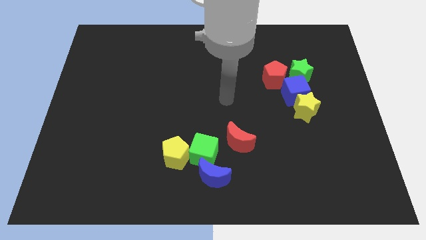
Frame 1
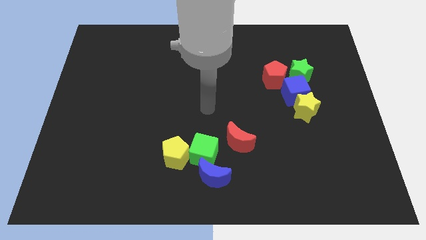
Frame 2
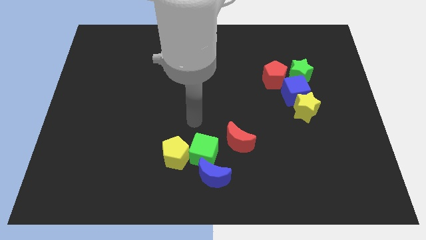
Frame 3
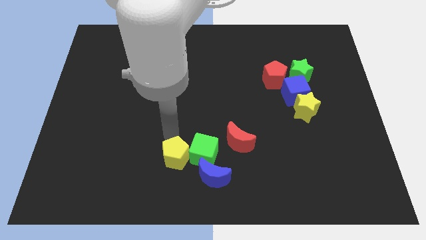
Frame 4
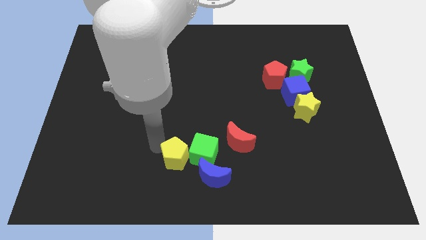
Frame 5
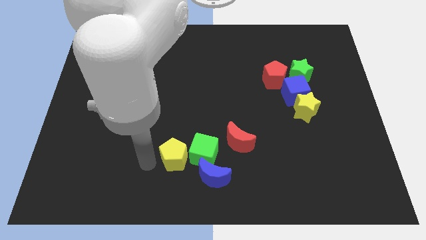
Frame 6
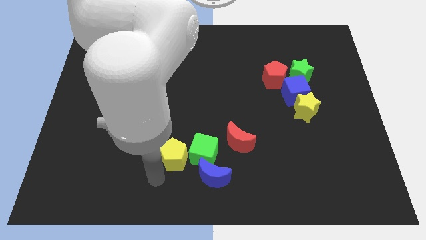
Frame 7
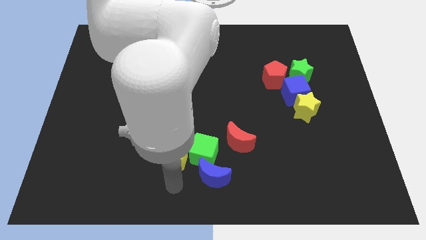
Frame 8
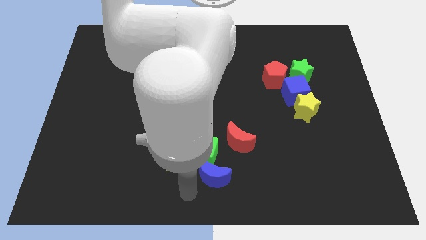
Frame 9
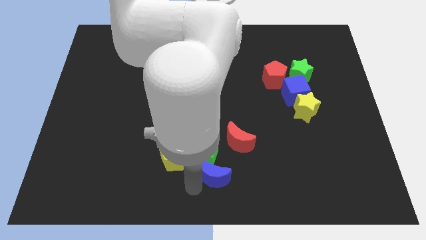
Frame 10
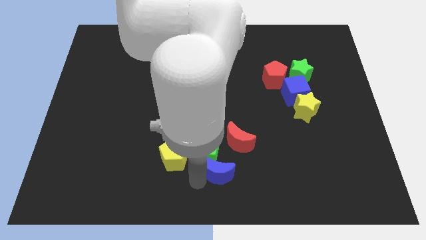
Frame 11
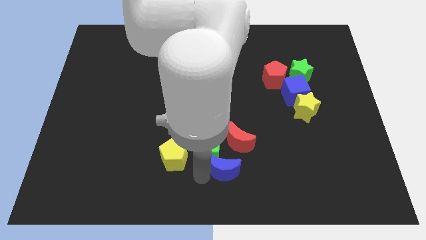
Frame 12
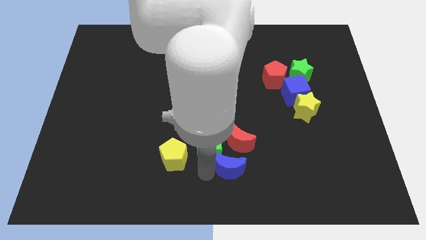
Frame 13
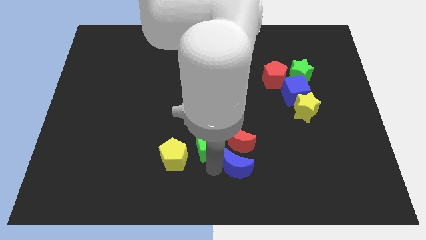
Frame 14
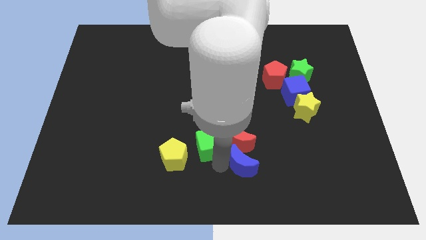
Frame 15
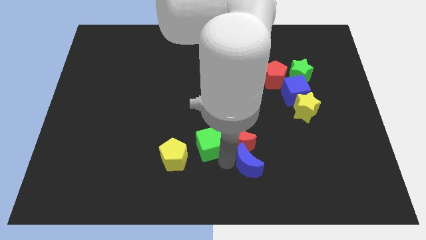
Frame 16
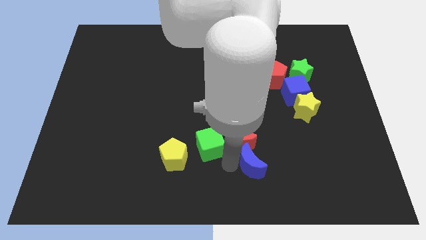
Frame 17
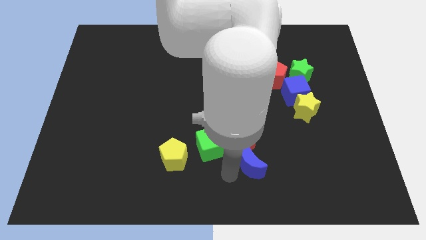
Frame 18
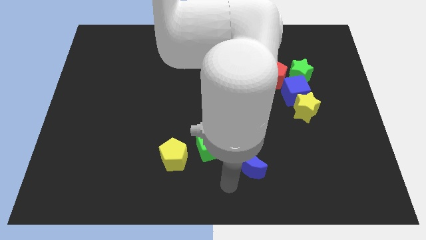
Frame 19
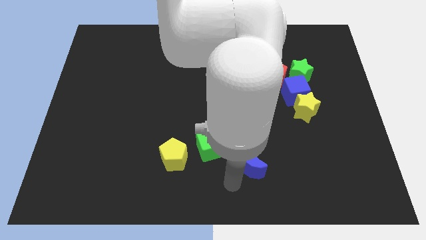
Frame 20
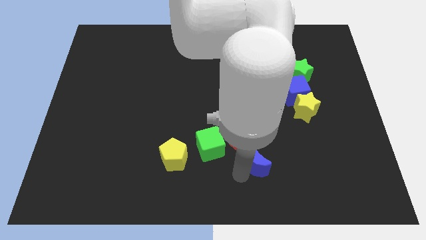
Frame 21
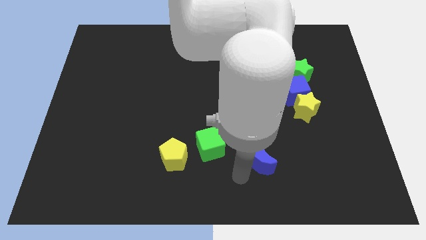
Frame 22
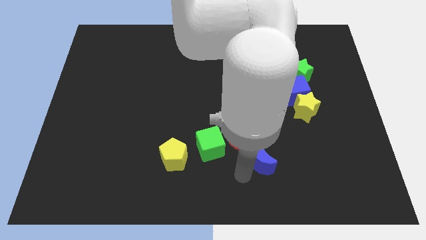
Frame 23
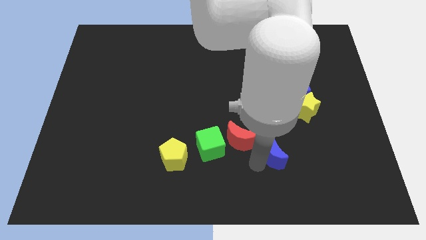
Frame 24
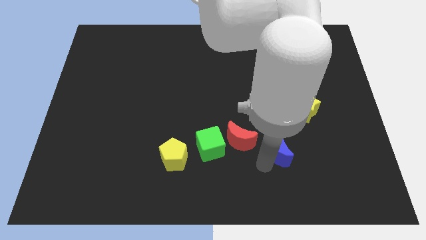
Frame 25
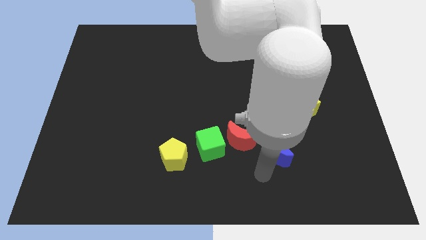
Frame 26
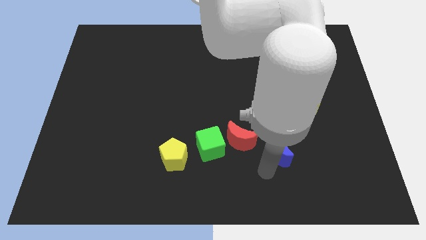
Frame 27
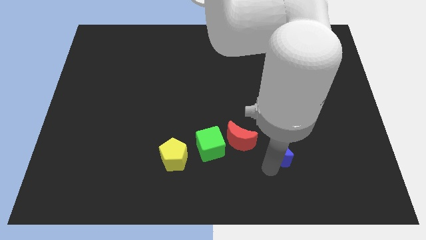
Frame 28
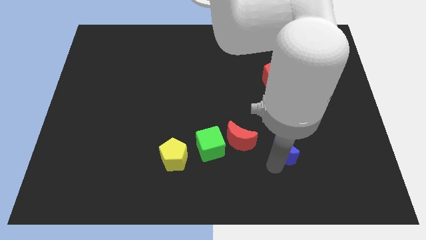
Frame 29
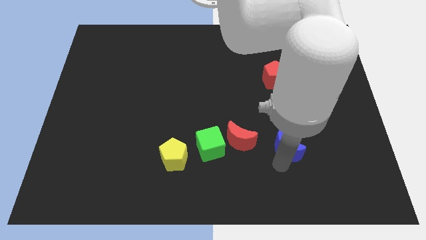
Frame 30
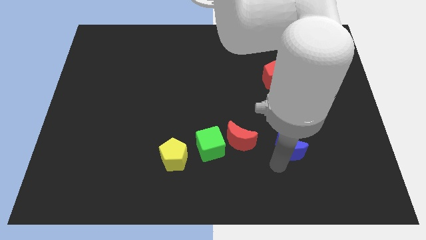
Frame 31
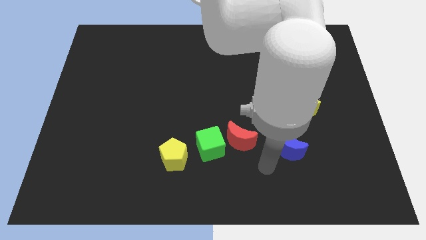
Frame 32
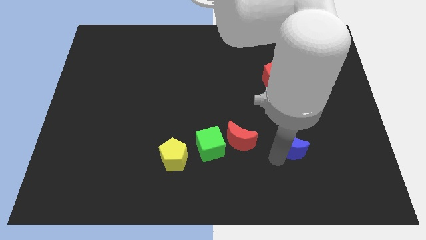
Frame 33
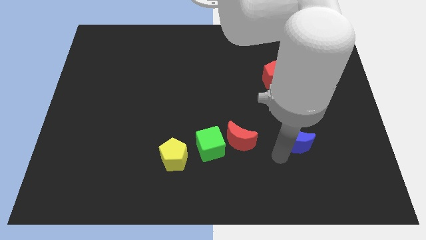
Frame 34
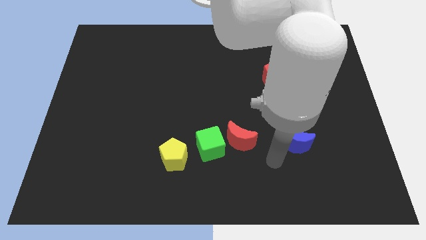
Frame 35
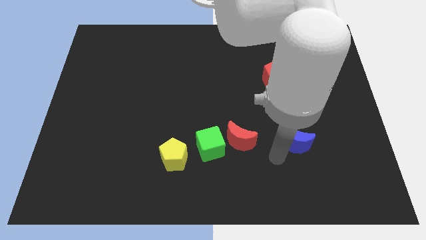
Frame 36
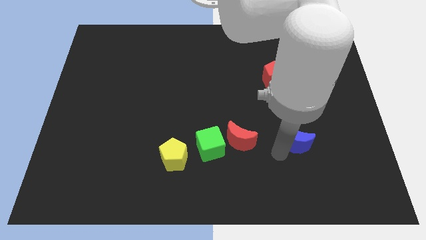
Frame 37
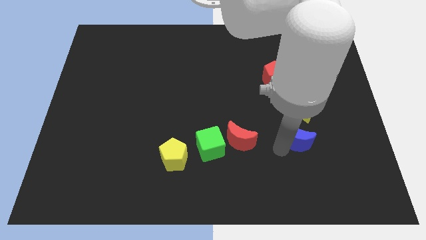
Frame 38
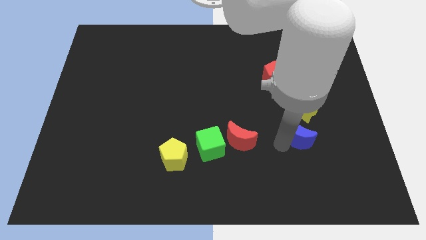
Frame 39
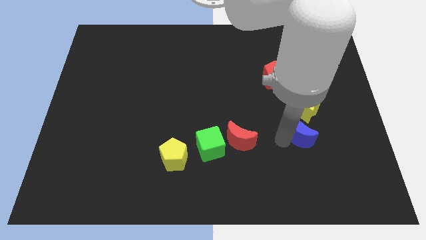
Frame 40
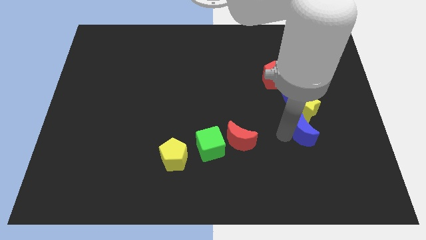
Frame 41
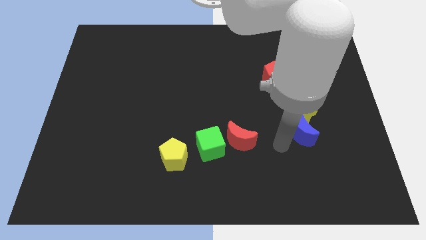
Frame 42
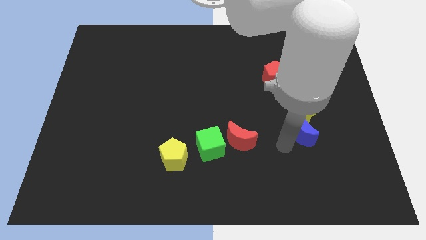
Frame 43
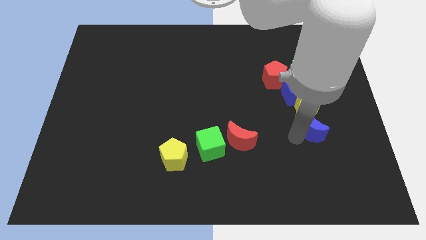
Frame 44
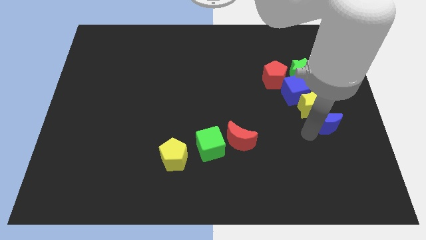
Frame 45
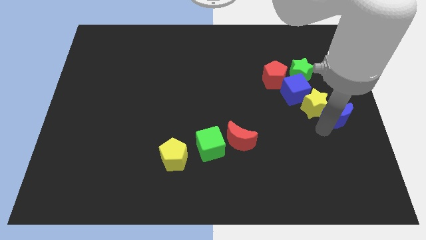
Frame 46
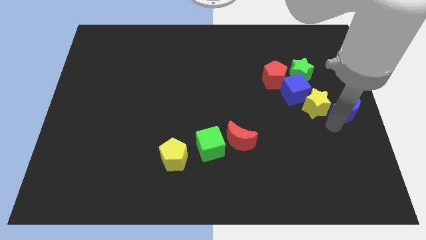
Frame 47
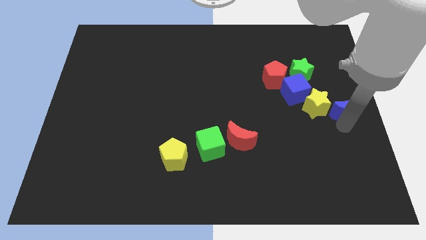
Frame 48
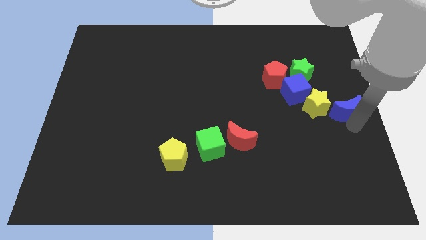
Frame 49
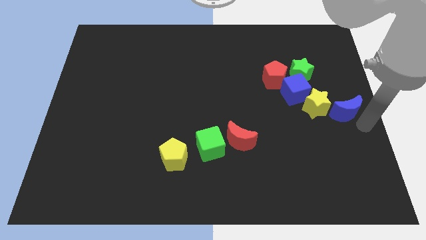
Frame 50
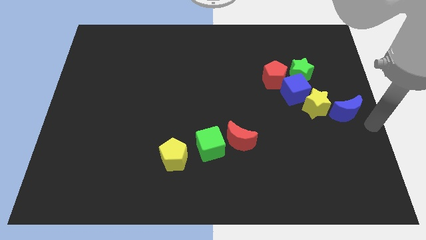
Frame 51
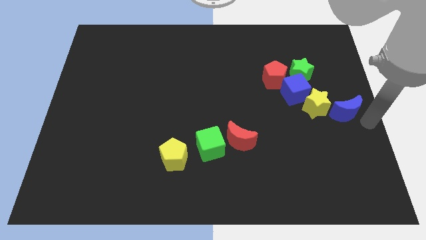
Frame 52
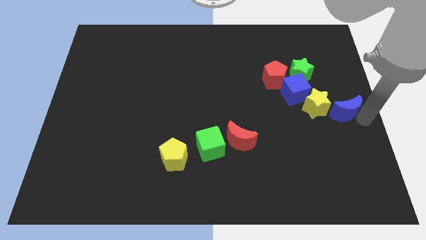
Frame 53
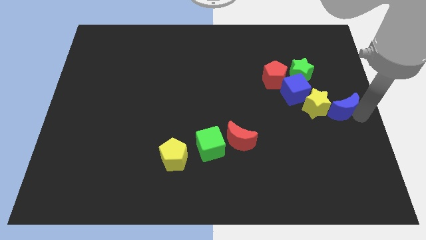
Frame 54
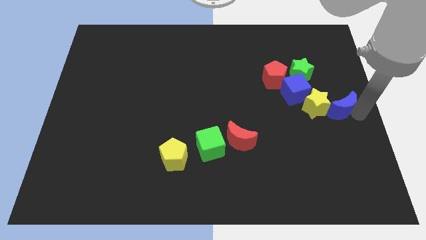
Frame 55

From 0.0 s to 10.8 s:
push the blue moon diagonally up and to the right of the yellow star

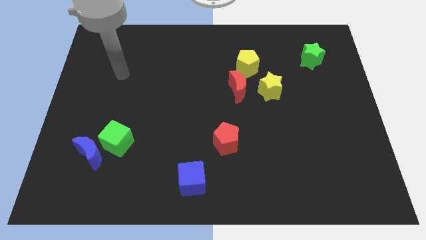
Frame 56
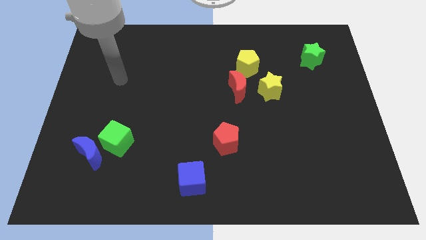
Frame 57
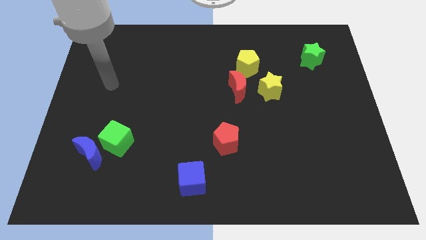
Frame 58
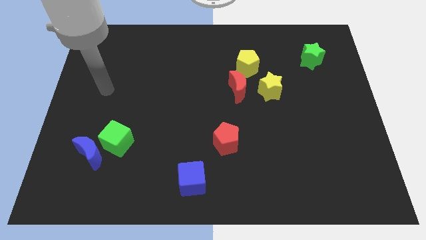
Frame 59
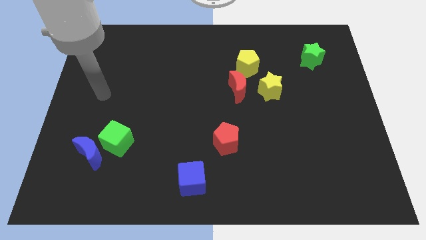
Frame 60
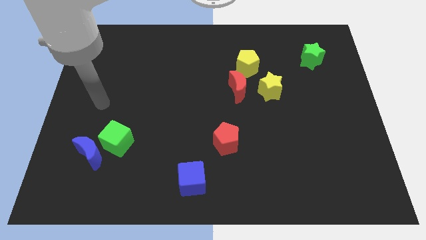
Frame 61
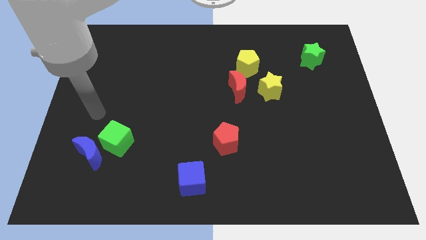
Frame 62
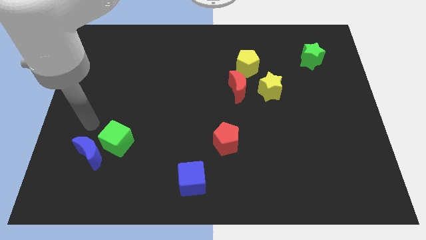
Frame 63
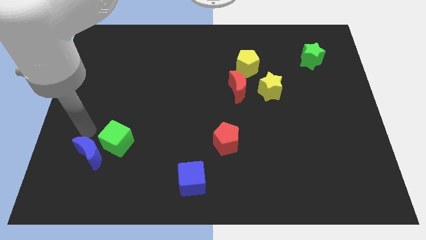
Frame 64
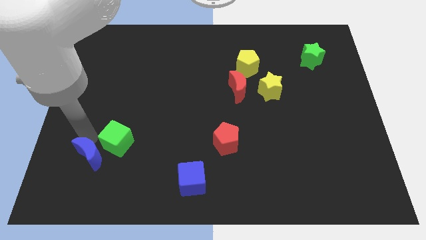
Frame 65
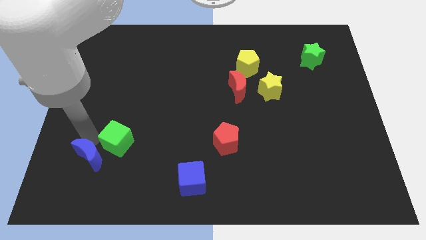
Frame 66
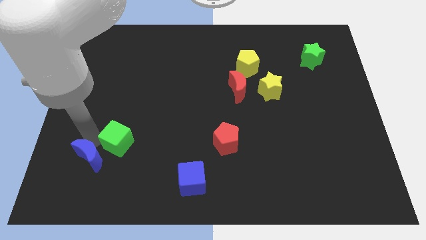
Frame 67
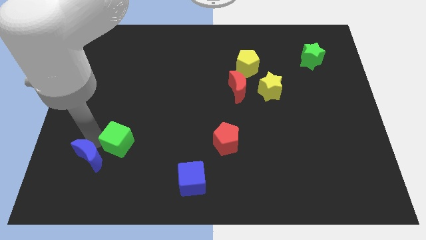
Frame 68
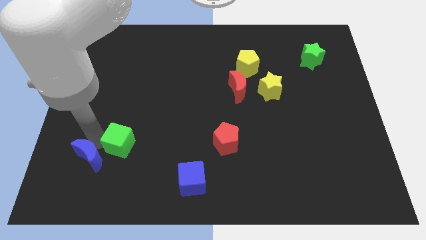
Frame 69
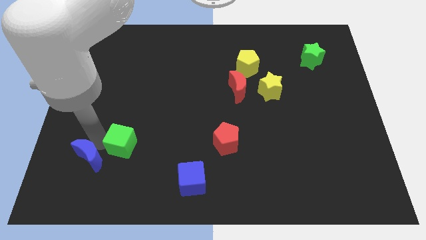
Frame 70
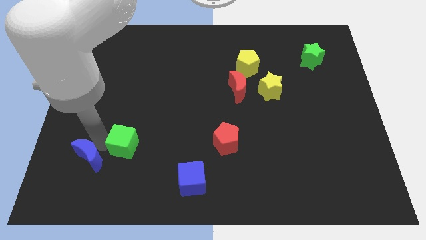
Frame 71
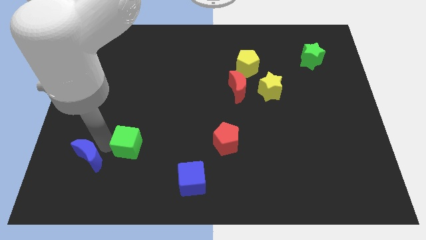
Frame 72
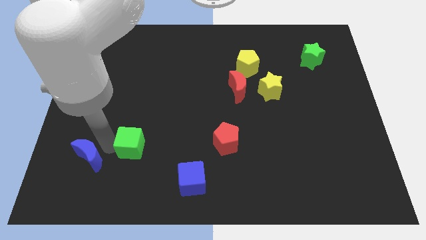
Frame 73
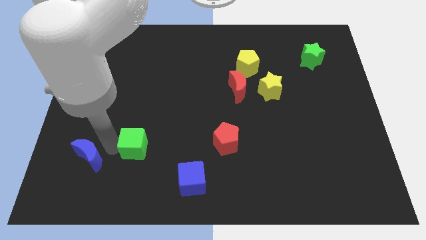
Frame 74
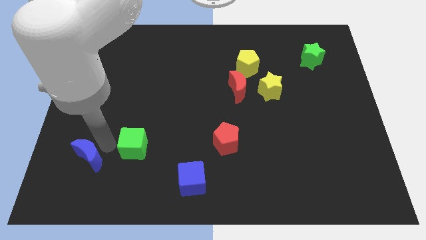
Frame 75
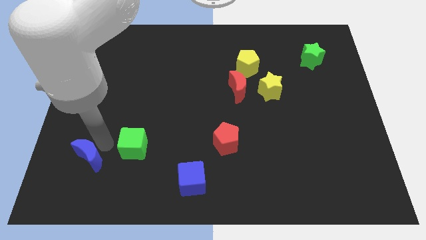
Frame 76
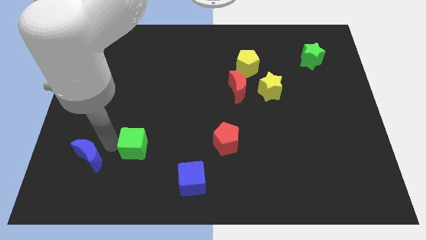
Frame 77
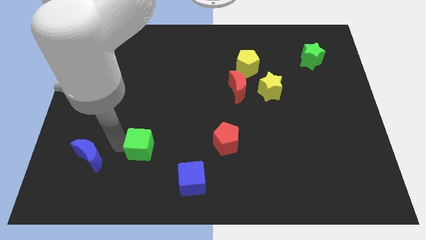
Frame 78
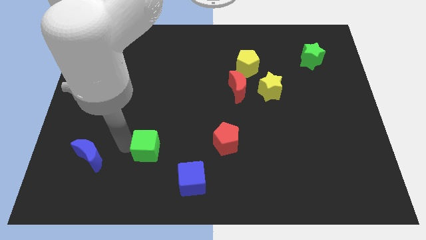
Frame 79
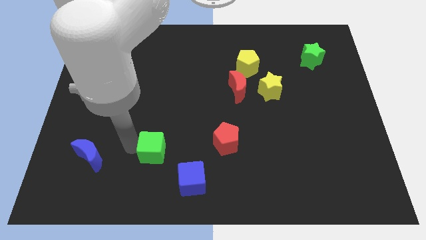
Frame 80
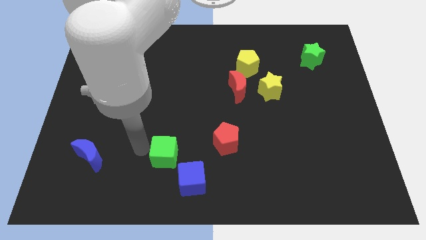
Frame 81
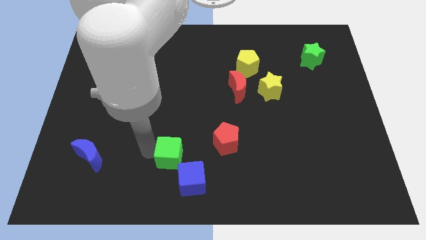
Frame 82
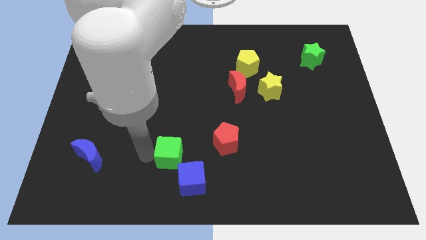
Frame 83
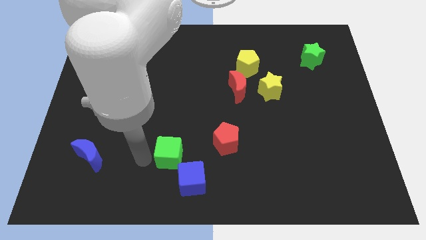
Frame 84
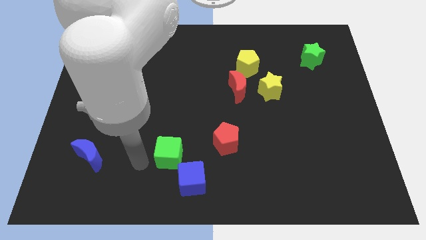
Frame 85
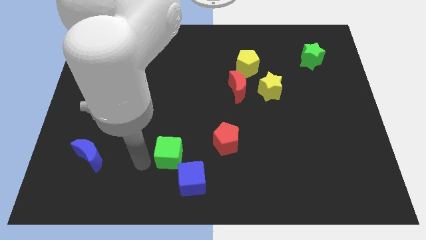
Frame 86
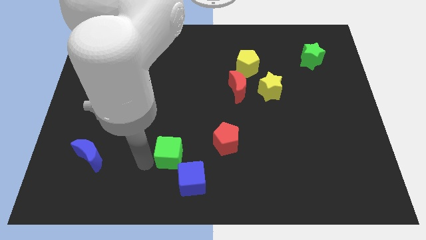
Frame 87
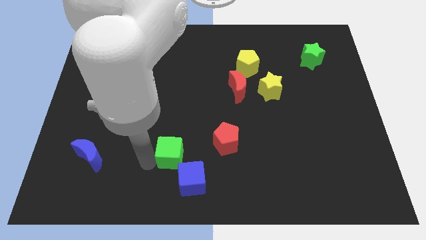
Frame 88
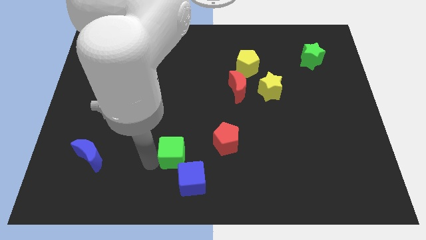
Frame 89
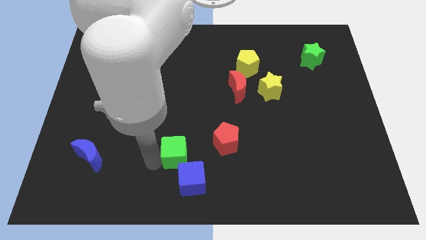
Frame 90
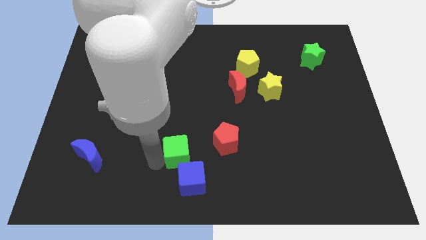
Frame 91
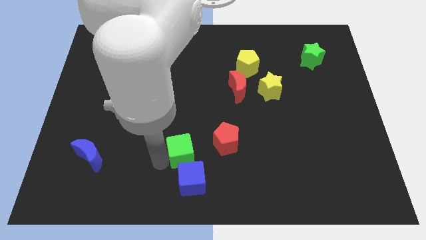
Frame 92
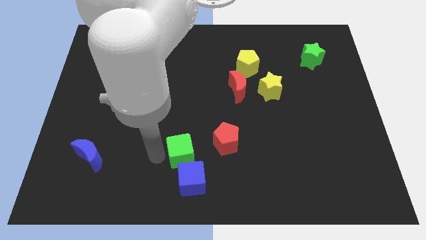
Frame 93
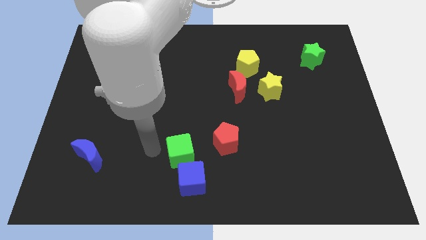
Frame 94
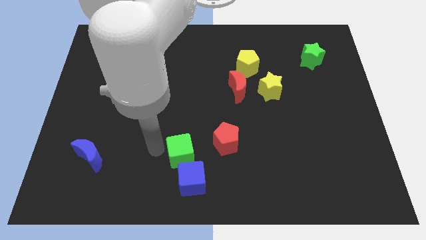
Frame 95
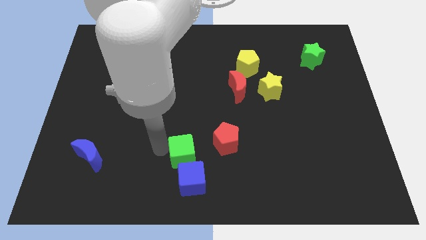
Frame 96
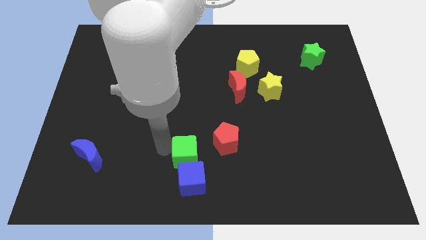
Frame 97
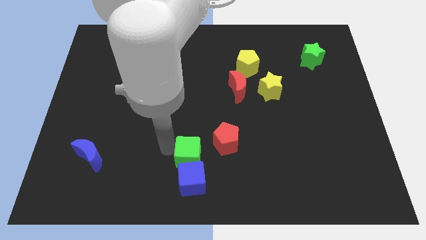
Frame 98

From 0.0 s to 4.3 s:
put the green cube to the top right of the blue cube
